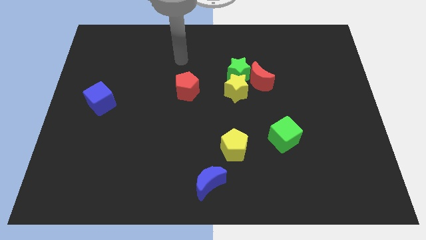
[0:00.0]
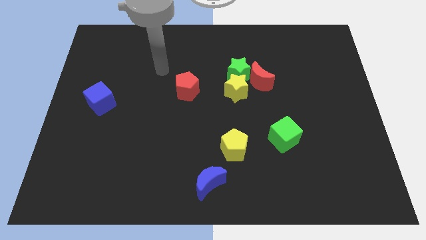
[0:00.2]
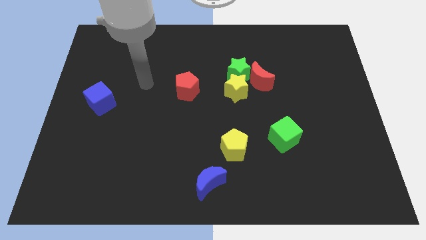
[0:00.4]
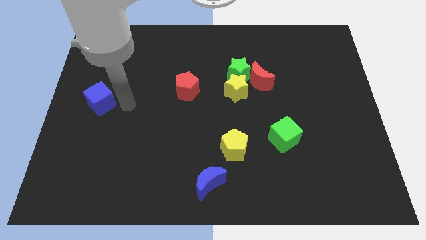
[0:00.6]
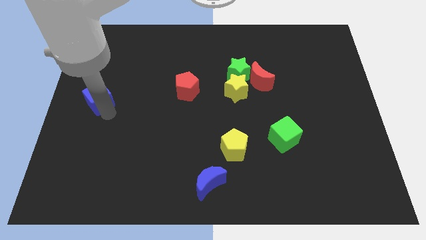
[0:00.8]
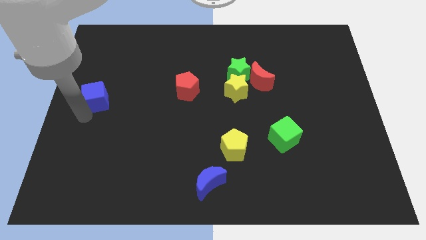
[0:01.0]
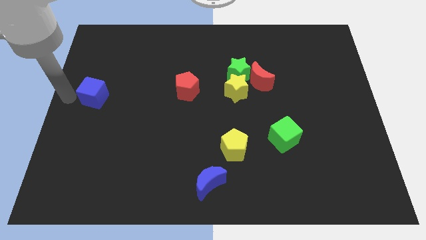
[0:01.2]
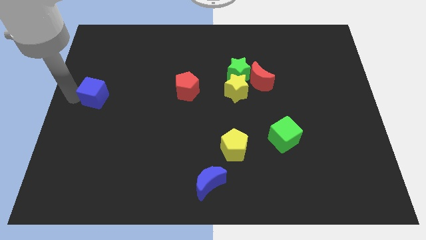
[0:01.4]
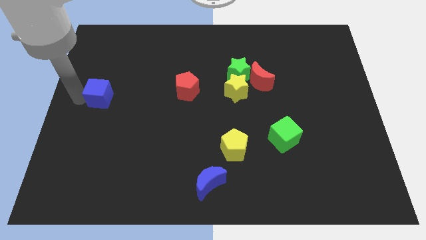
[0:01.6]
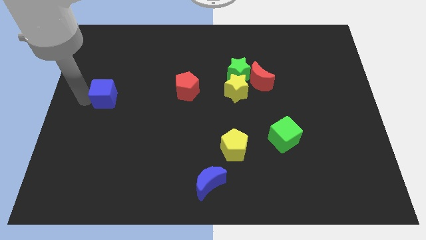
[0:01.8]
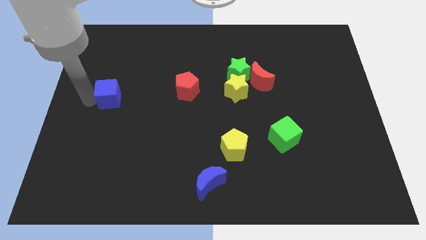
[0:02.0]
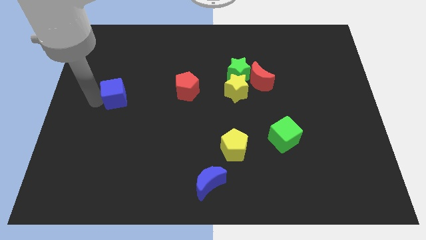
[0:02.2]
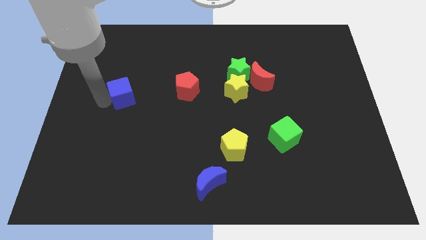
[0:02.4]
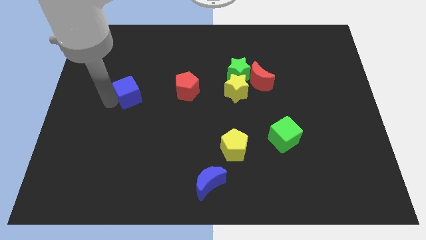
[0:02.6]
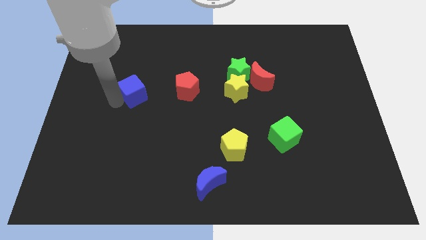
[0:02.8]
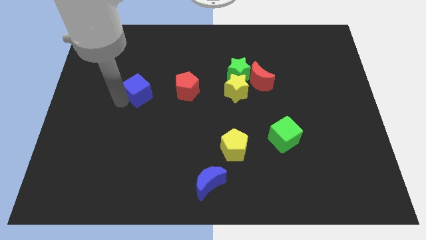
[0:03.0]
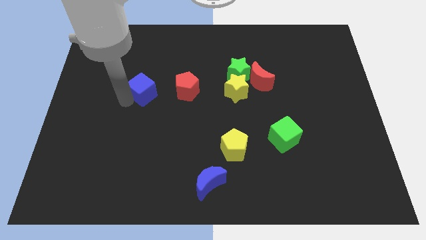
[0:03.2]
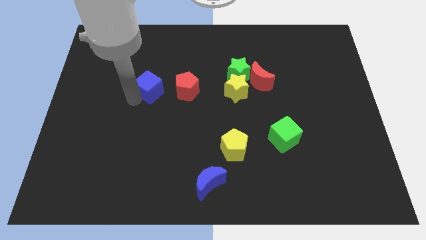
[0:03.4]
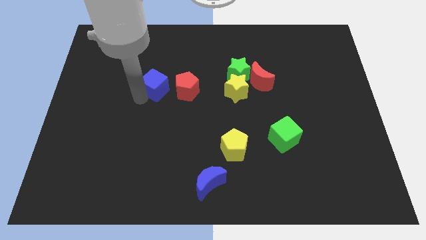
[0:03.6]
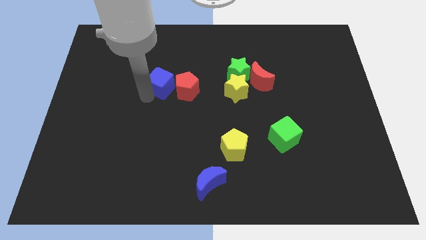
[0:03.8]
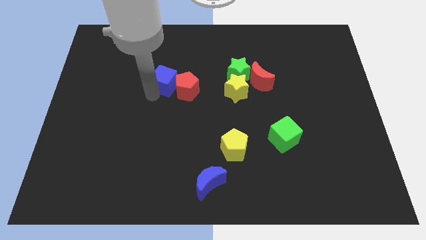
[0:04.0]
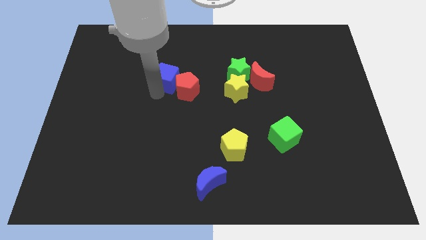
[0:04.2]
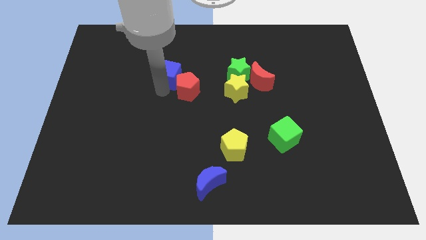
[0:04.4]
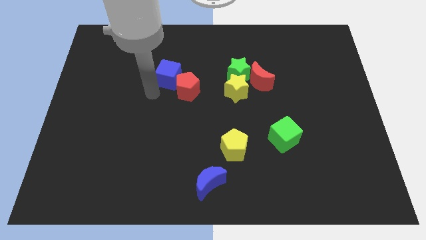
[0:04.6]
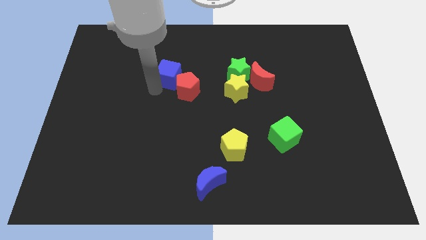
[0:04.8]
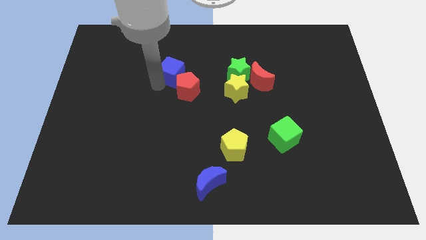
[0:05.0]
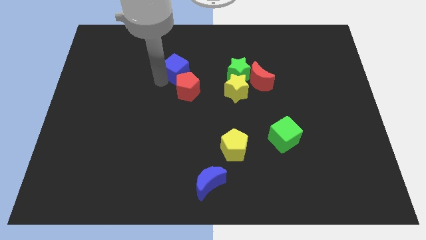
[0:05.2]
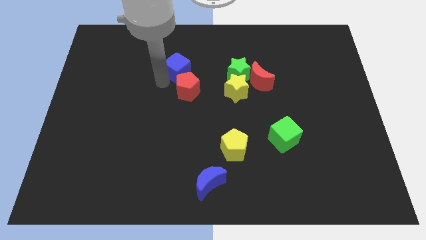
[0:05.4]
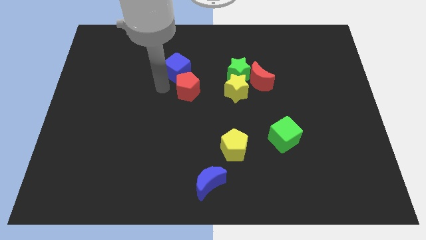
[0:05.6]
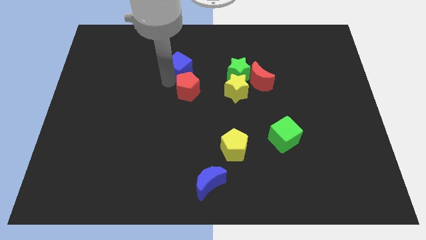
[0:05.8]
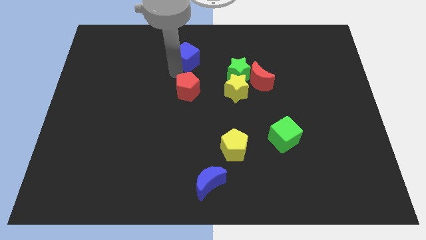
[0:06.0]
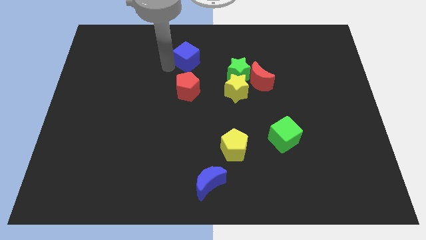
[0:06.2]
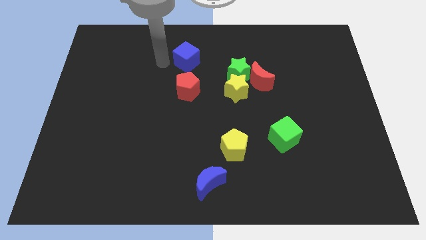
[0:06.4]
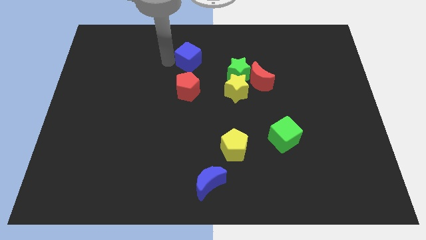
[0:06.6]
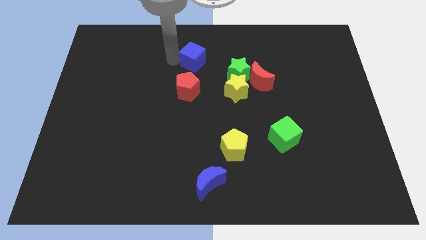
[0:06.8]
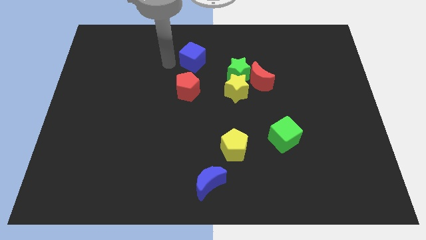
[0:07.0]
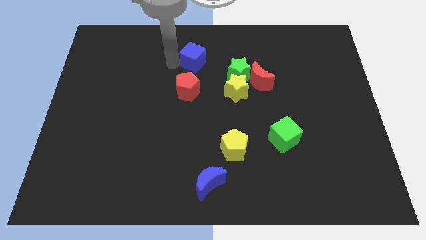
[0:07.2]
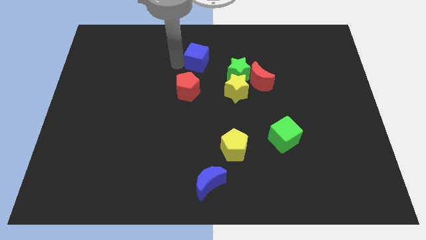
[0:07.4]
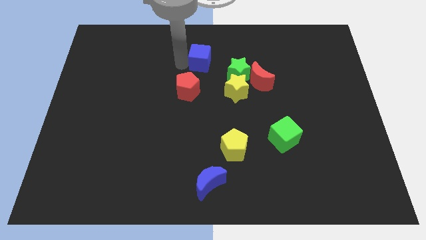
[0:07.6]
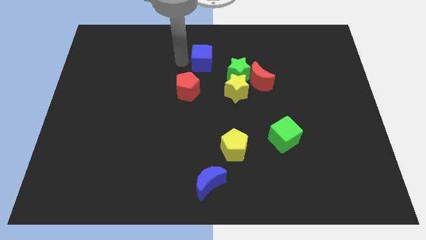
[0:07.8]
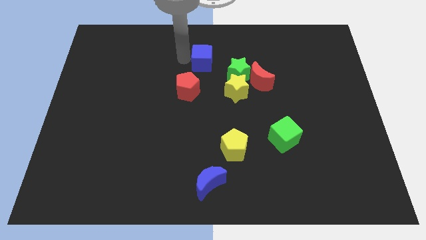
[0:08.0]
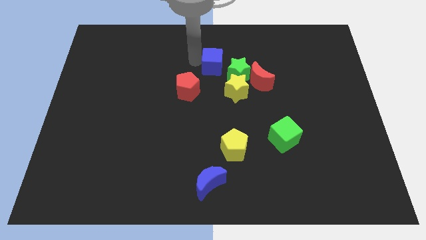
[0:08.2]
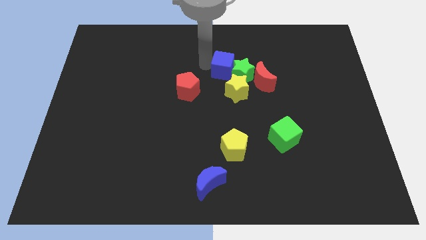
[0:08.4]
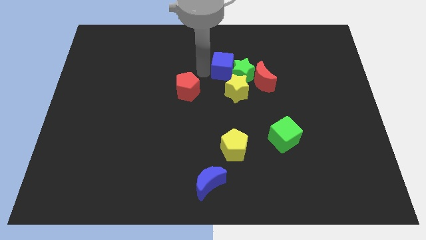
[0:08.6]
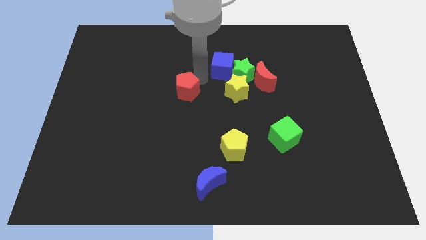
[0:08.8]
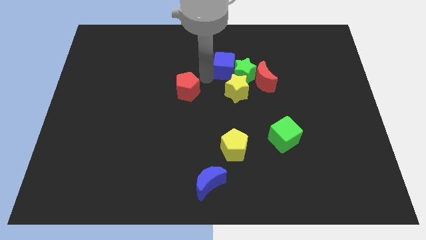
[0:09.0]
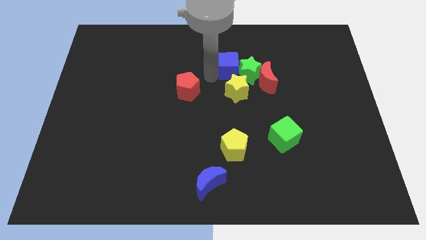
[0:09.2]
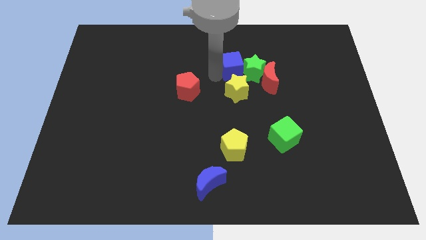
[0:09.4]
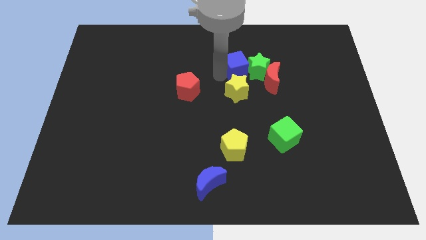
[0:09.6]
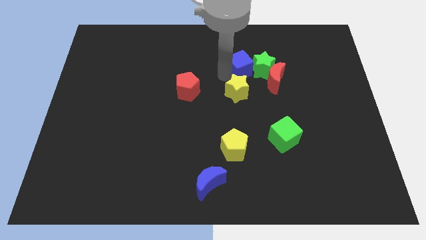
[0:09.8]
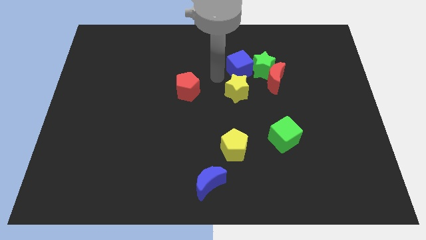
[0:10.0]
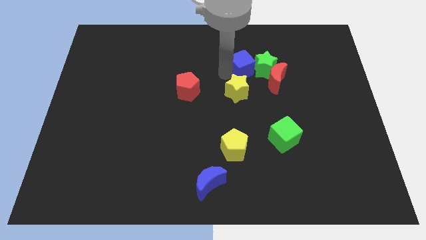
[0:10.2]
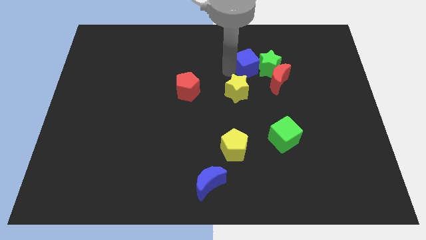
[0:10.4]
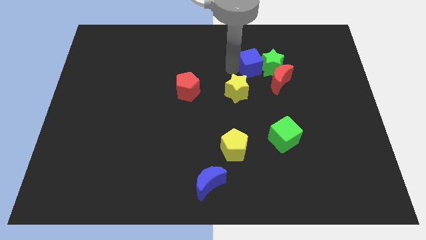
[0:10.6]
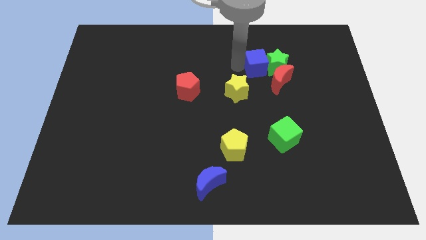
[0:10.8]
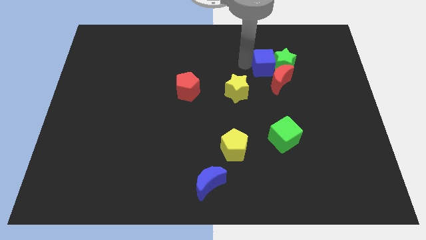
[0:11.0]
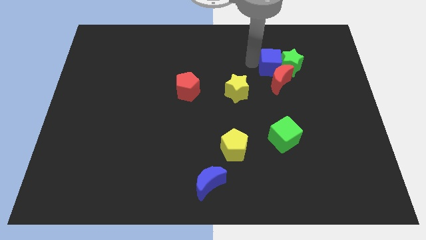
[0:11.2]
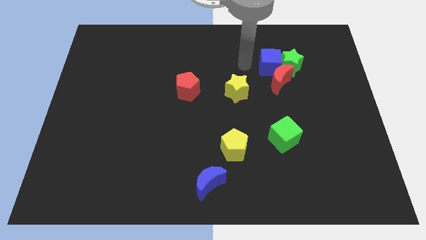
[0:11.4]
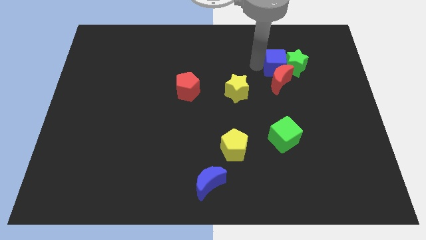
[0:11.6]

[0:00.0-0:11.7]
put the blue cube diagonally up and to the right of the red moon
